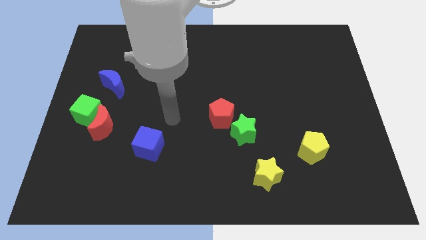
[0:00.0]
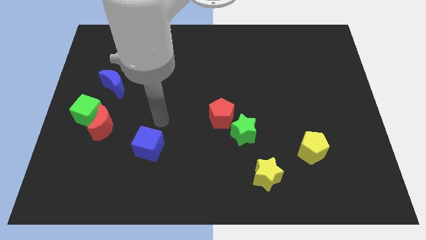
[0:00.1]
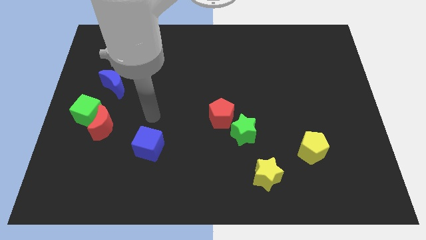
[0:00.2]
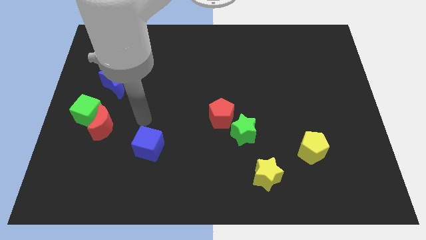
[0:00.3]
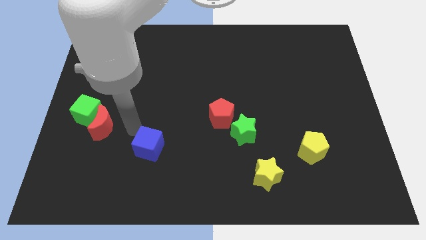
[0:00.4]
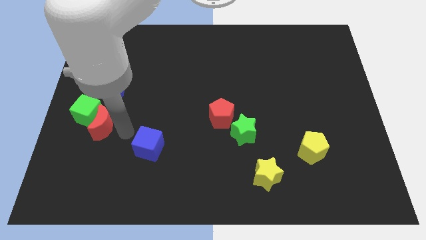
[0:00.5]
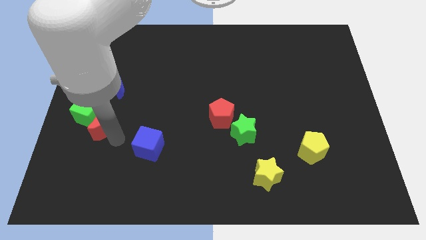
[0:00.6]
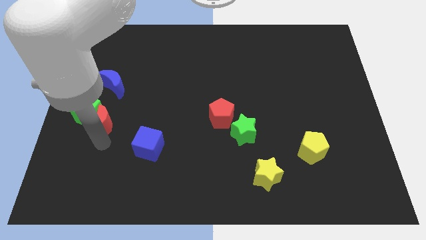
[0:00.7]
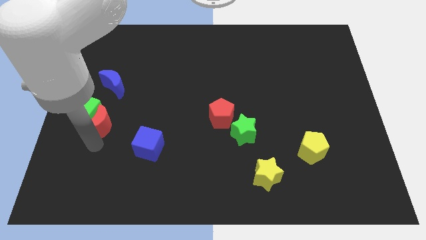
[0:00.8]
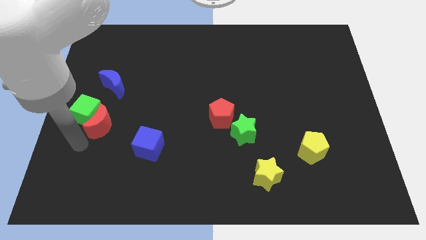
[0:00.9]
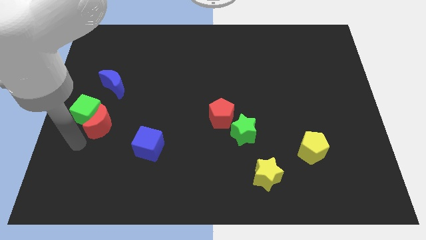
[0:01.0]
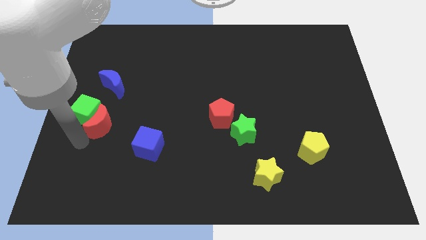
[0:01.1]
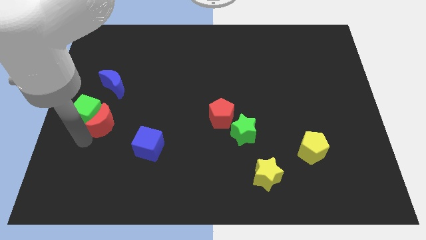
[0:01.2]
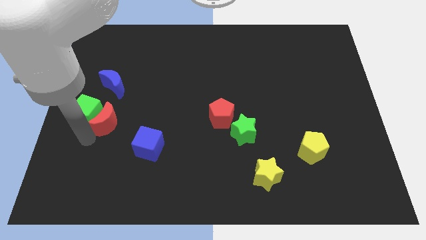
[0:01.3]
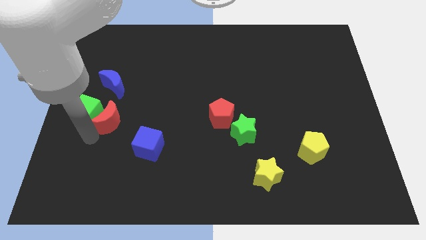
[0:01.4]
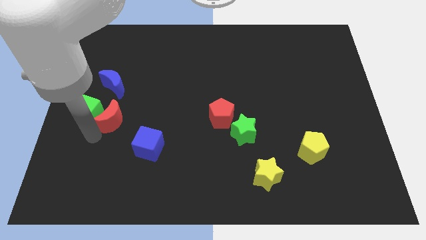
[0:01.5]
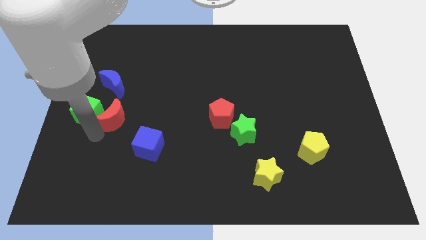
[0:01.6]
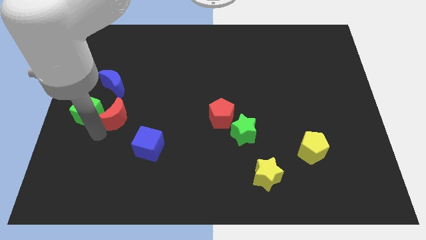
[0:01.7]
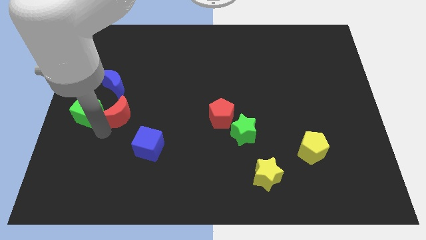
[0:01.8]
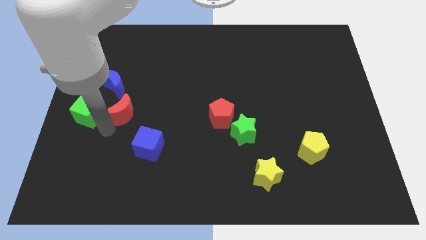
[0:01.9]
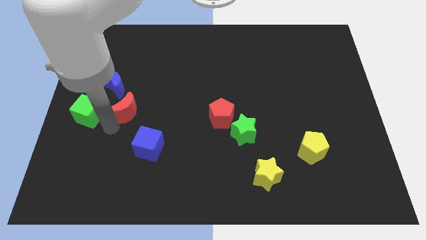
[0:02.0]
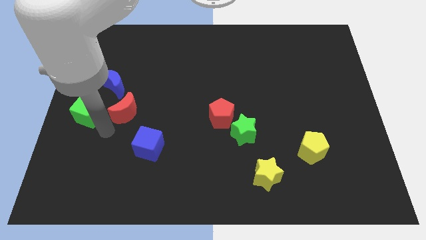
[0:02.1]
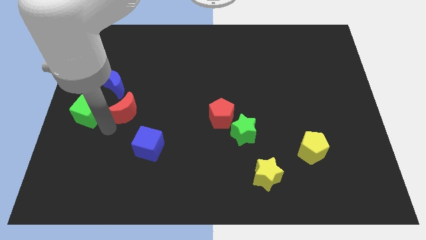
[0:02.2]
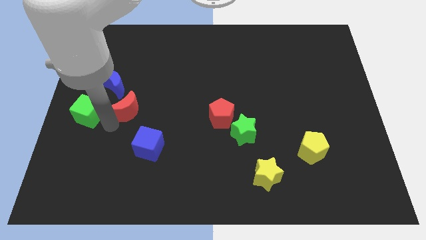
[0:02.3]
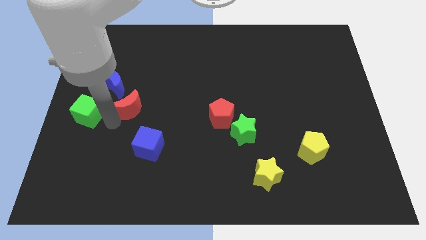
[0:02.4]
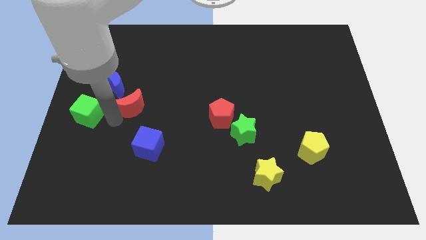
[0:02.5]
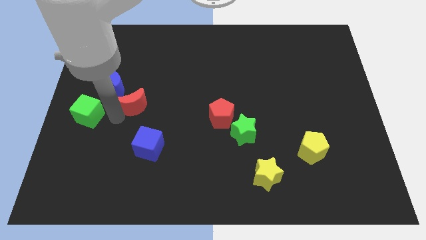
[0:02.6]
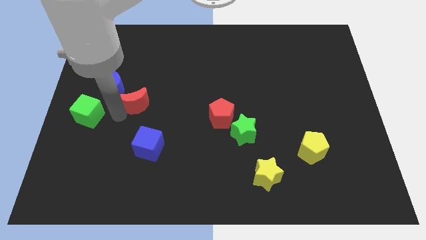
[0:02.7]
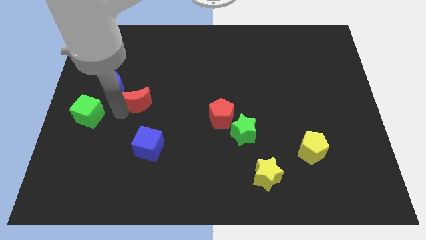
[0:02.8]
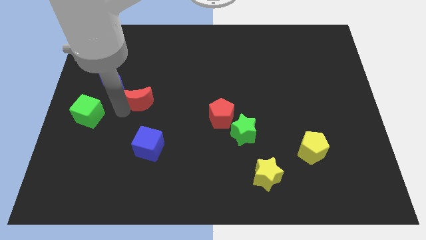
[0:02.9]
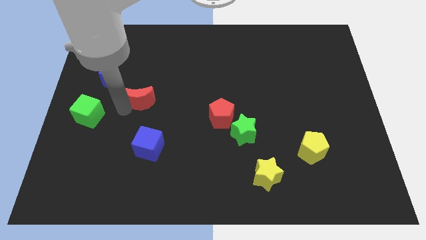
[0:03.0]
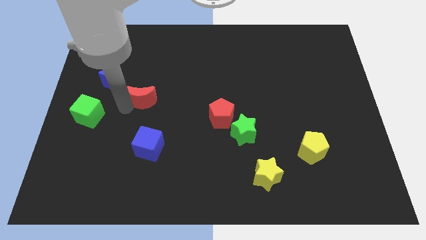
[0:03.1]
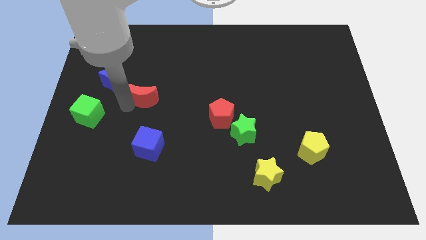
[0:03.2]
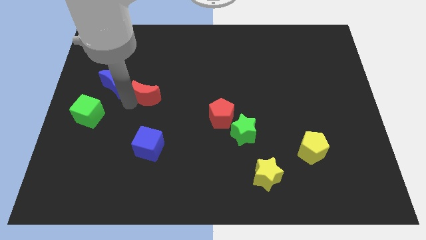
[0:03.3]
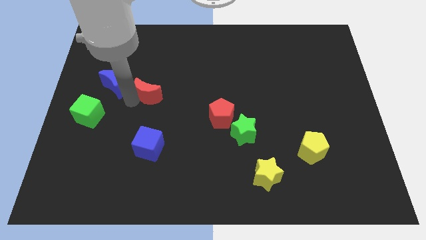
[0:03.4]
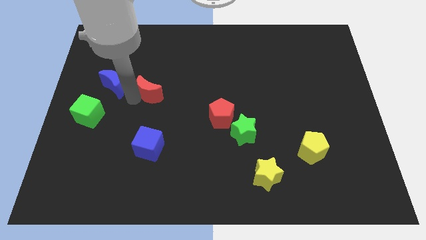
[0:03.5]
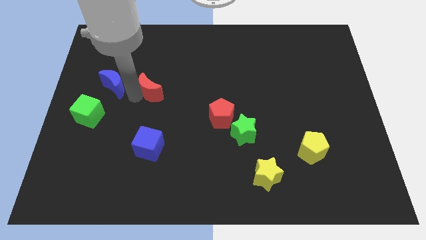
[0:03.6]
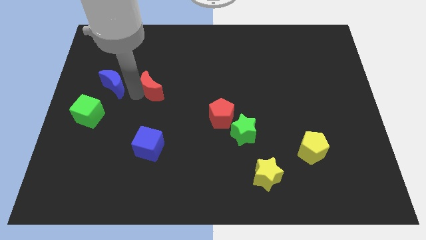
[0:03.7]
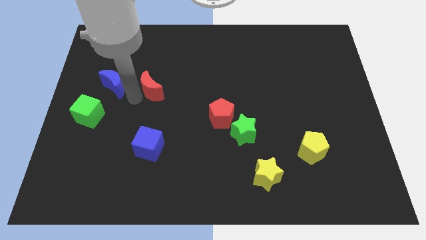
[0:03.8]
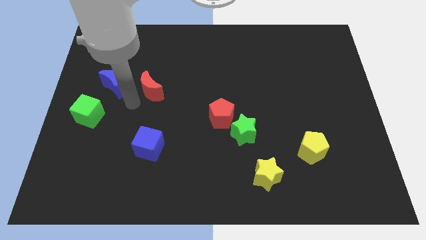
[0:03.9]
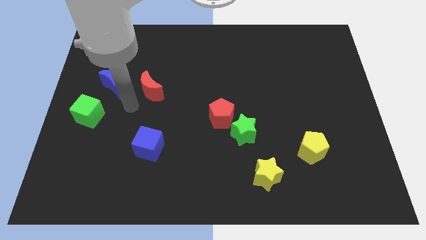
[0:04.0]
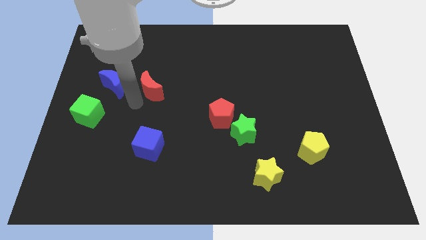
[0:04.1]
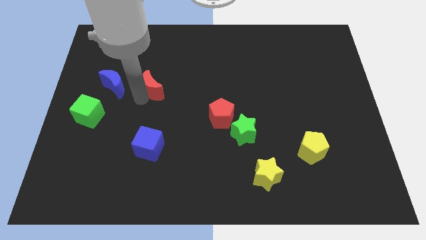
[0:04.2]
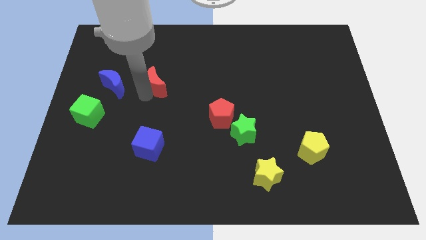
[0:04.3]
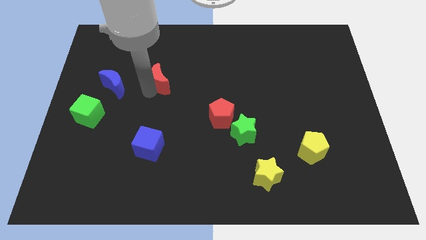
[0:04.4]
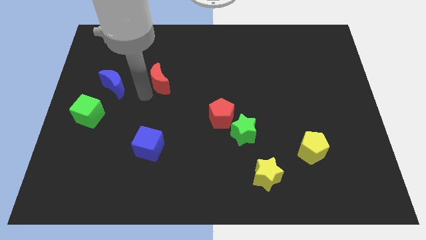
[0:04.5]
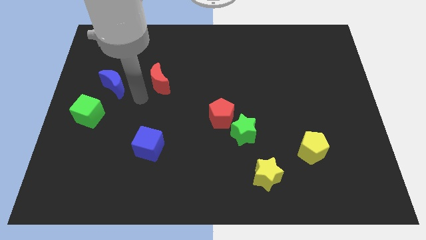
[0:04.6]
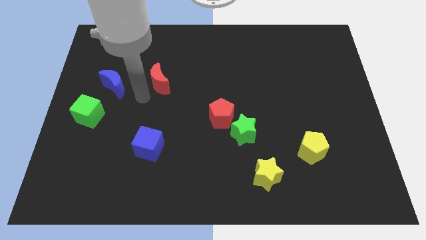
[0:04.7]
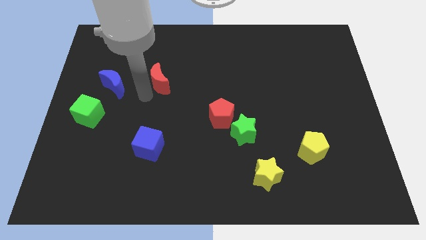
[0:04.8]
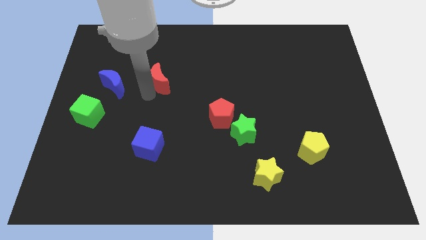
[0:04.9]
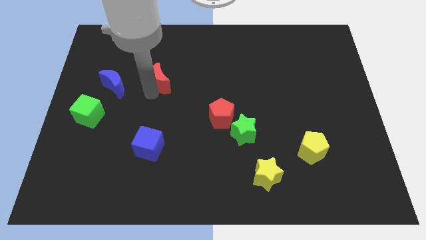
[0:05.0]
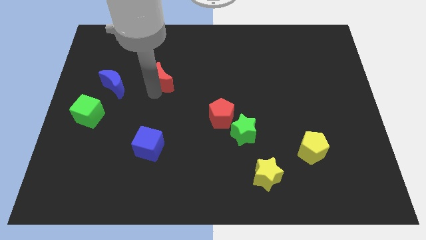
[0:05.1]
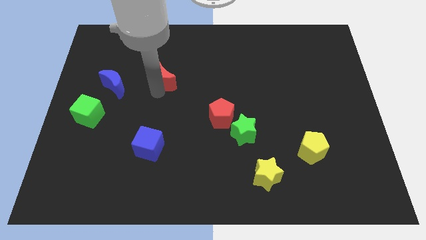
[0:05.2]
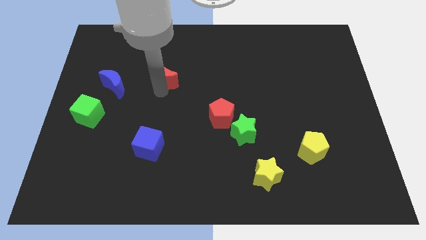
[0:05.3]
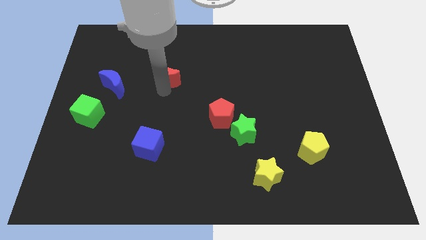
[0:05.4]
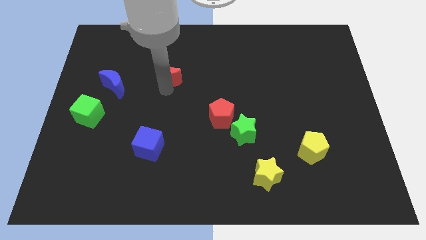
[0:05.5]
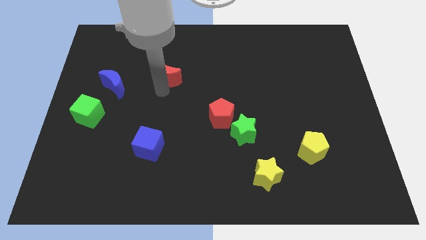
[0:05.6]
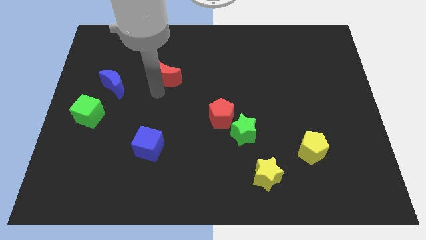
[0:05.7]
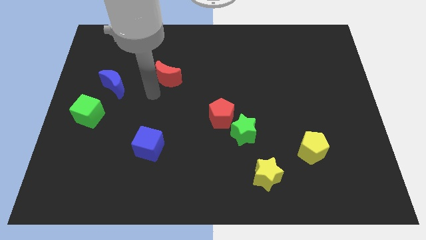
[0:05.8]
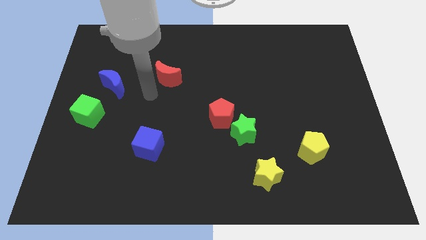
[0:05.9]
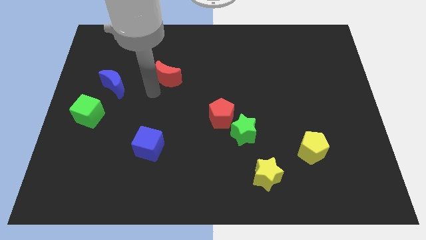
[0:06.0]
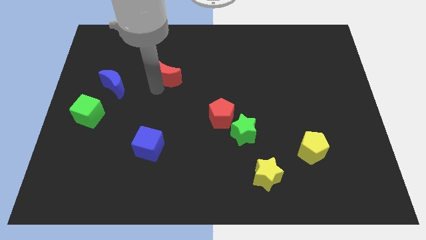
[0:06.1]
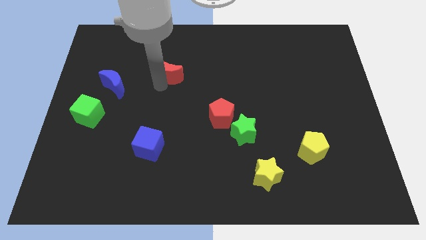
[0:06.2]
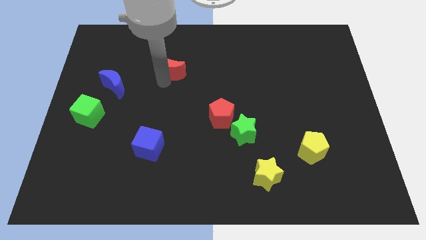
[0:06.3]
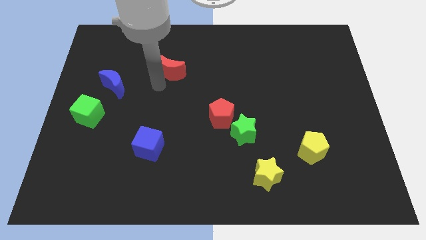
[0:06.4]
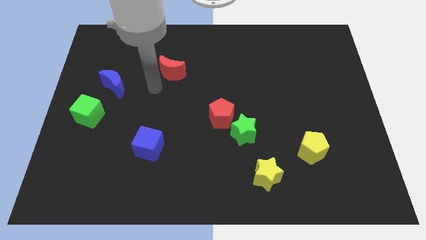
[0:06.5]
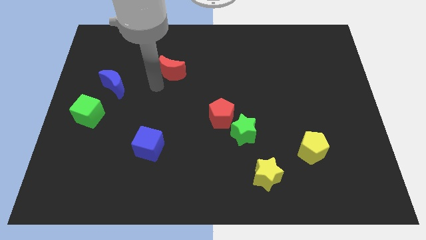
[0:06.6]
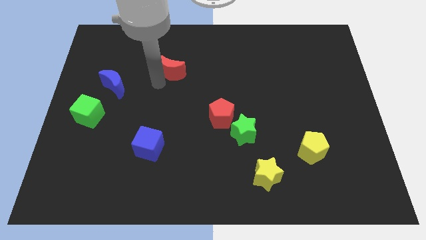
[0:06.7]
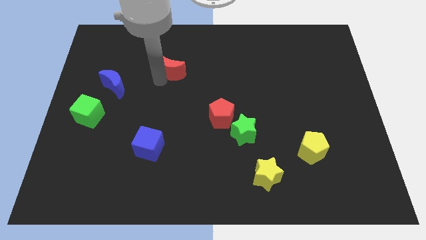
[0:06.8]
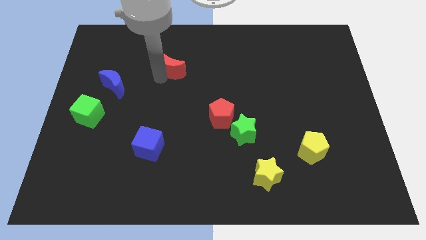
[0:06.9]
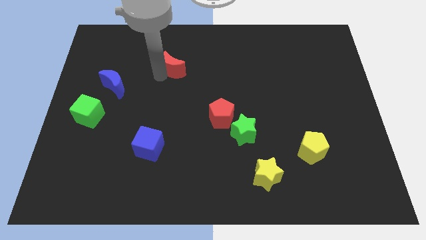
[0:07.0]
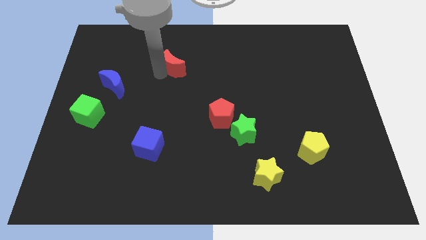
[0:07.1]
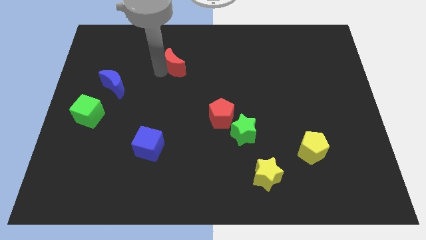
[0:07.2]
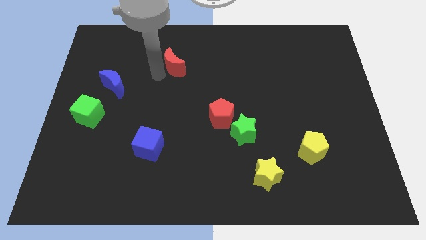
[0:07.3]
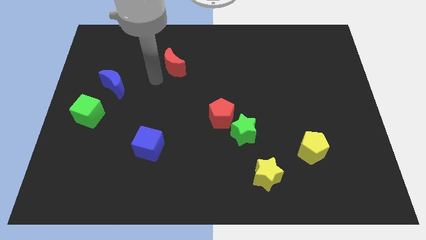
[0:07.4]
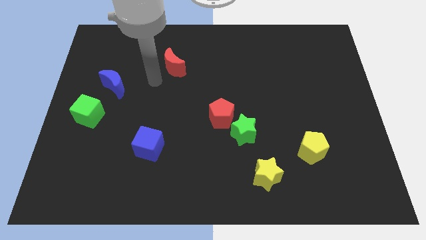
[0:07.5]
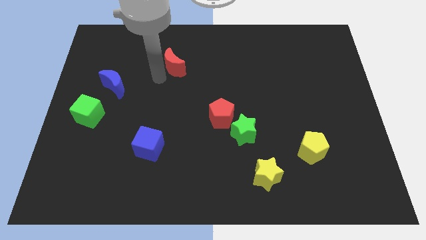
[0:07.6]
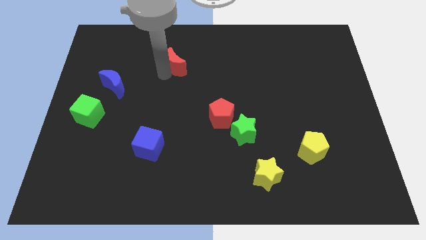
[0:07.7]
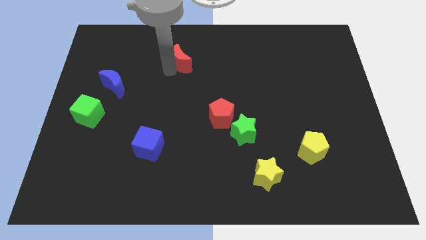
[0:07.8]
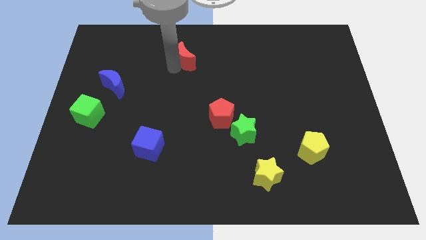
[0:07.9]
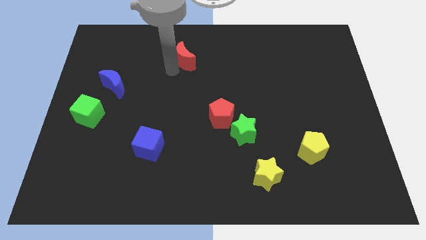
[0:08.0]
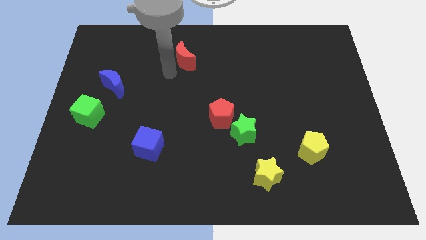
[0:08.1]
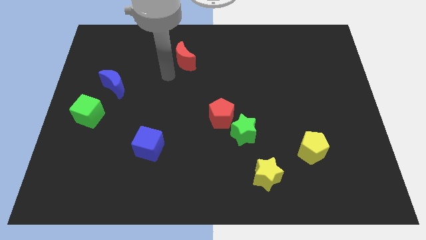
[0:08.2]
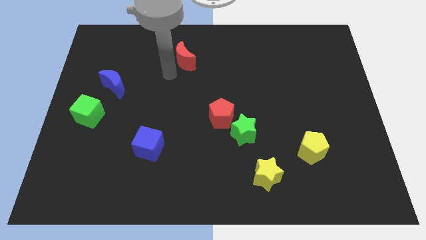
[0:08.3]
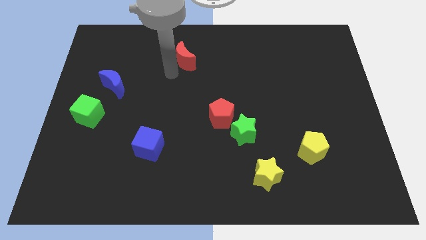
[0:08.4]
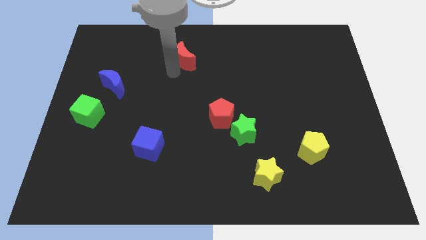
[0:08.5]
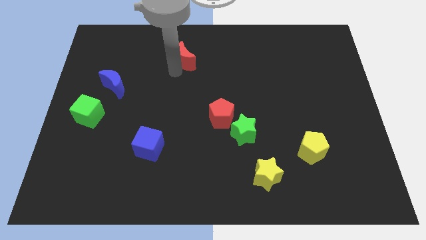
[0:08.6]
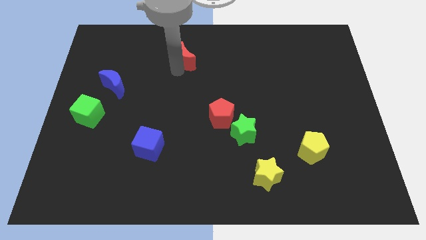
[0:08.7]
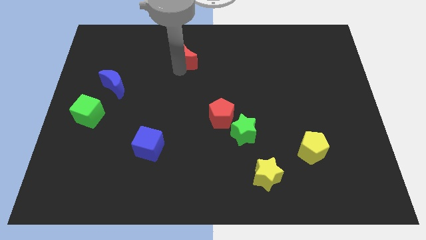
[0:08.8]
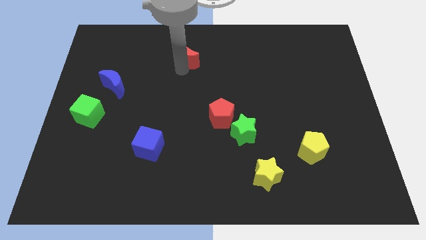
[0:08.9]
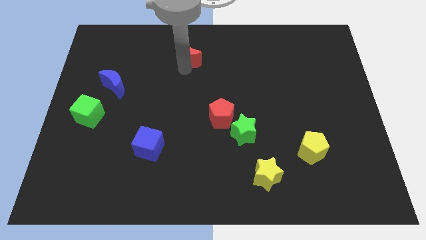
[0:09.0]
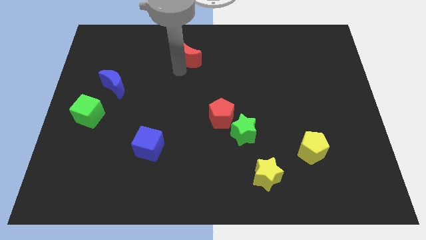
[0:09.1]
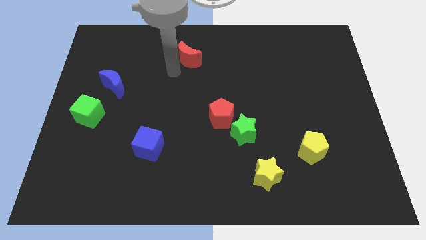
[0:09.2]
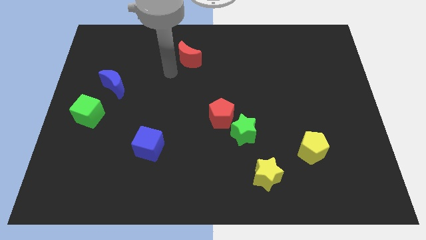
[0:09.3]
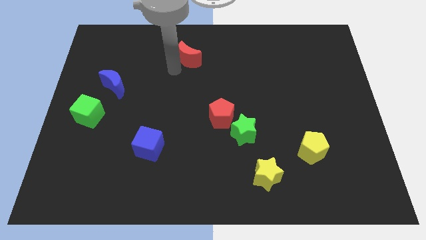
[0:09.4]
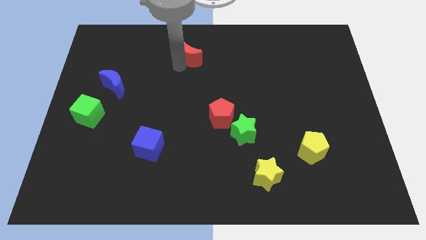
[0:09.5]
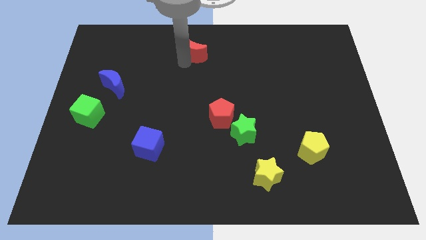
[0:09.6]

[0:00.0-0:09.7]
move the red moon to the towards your base
